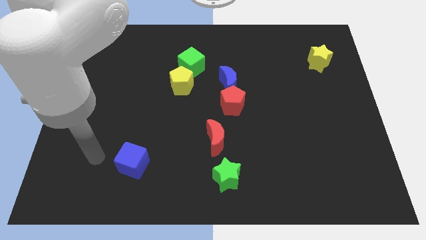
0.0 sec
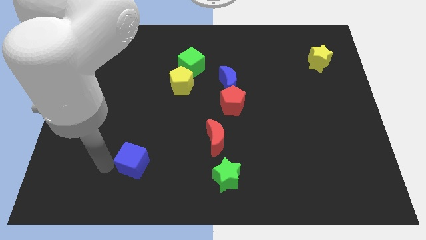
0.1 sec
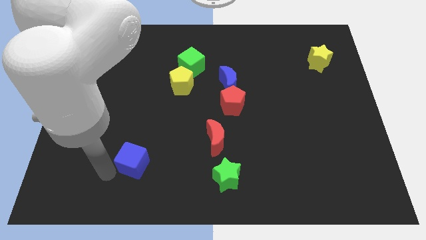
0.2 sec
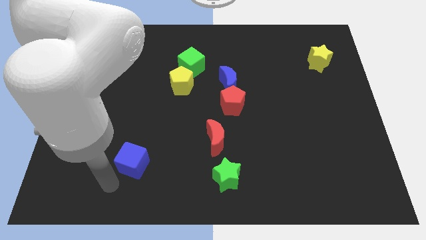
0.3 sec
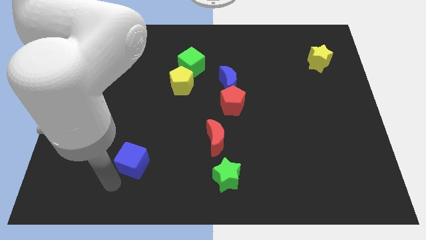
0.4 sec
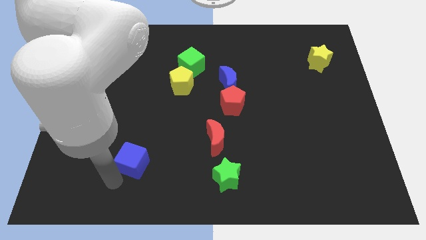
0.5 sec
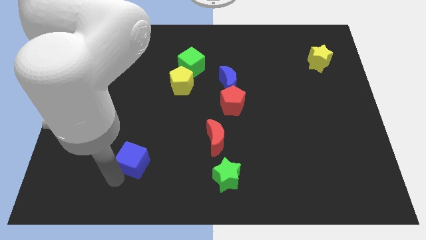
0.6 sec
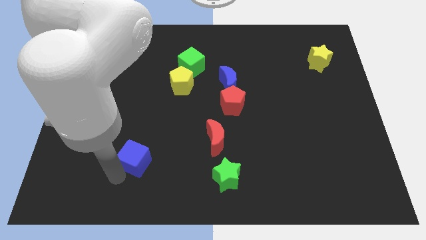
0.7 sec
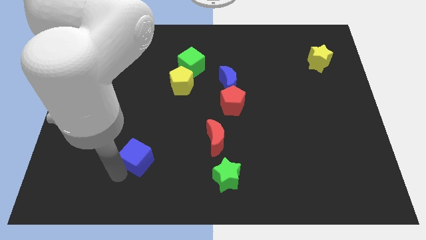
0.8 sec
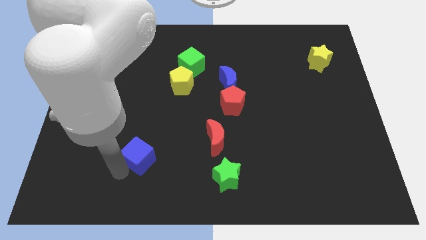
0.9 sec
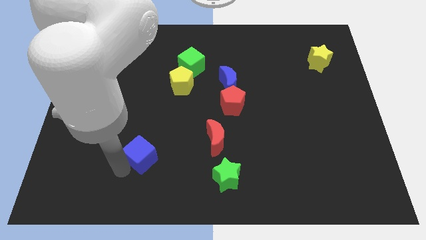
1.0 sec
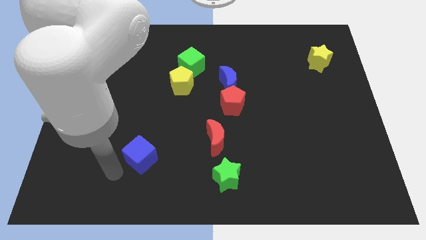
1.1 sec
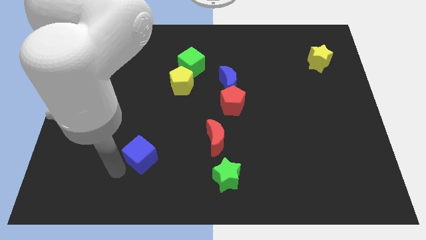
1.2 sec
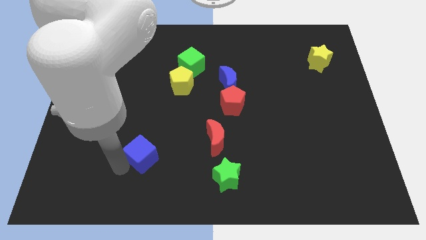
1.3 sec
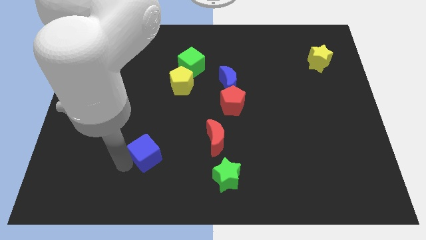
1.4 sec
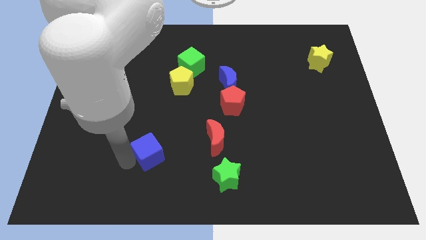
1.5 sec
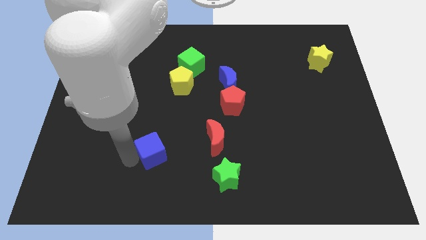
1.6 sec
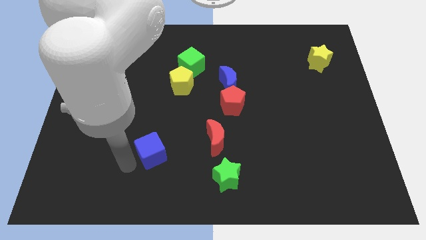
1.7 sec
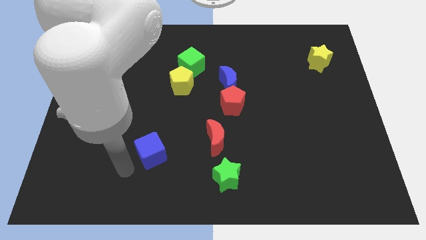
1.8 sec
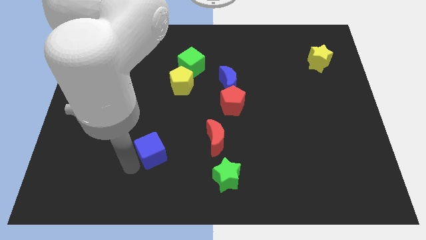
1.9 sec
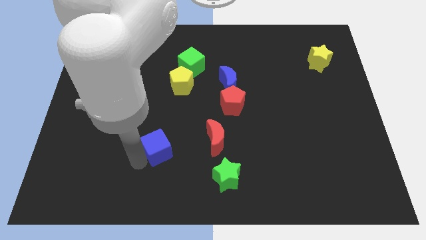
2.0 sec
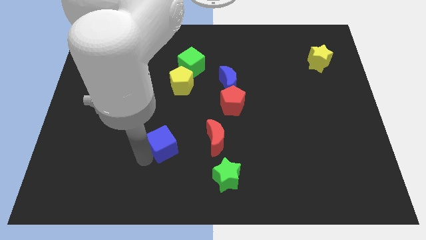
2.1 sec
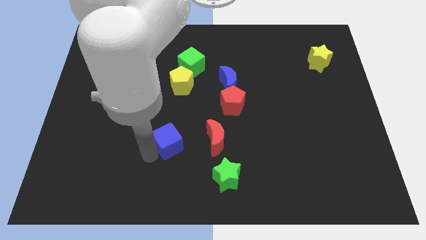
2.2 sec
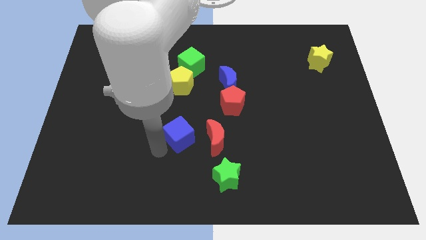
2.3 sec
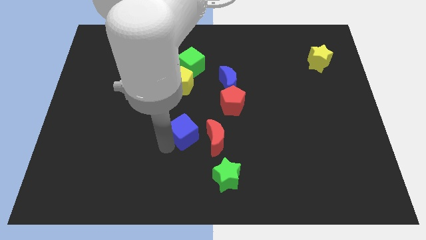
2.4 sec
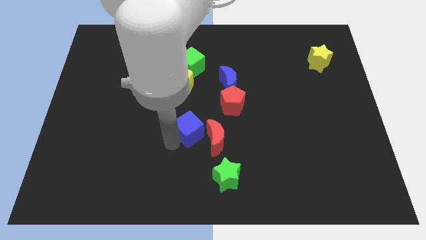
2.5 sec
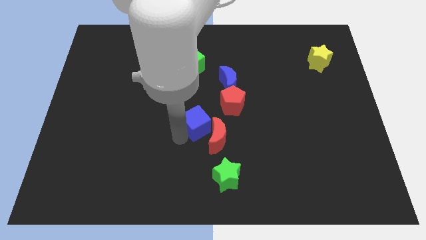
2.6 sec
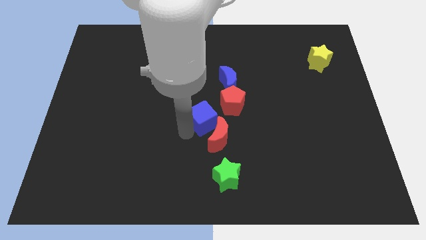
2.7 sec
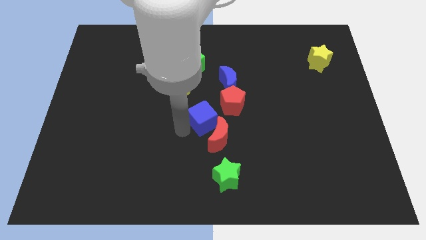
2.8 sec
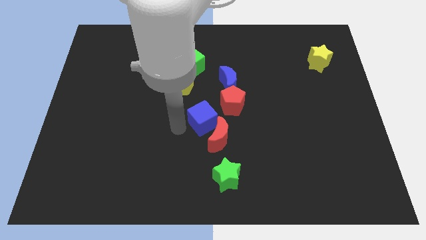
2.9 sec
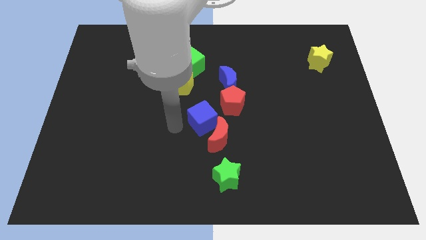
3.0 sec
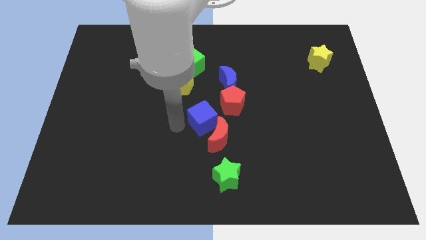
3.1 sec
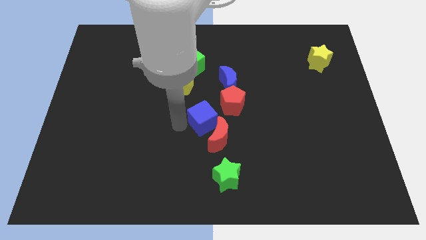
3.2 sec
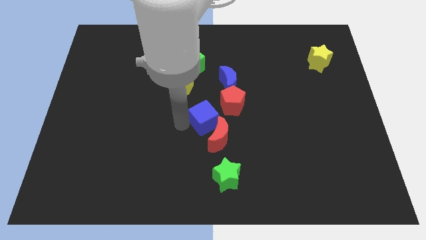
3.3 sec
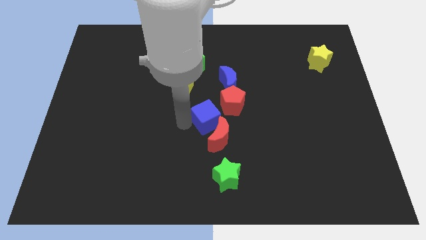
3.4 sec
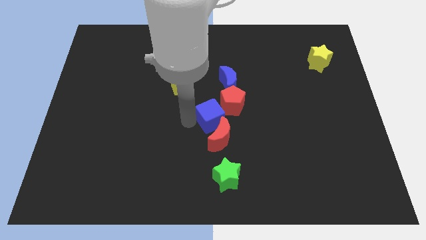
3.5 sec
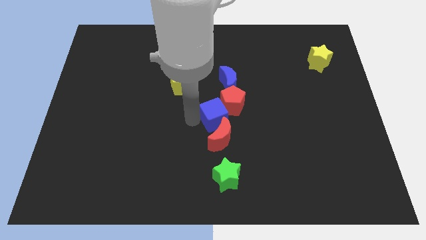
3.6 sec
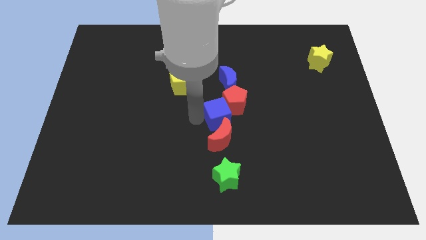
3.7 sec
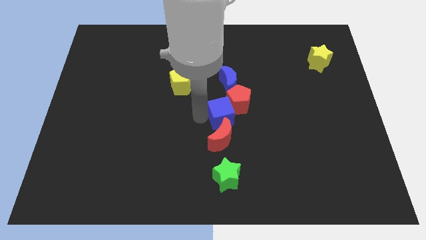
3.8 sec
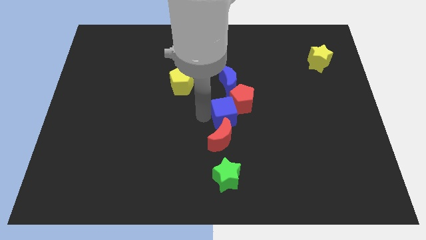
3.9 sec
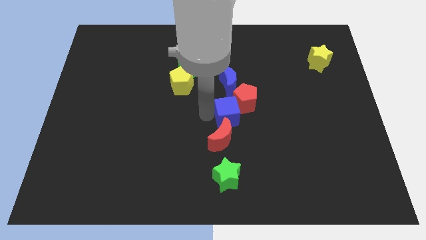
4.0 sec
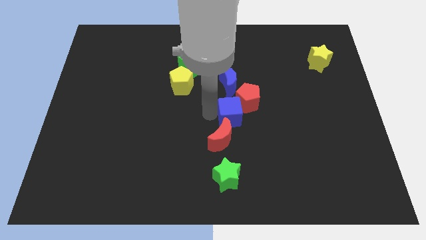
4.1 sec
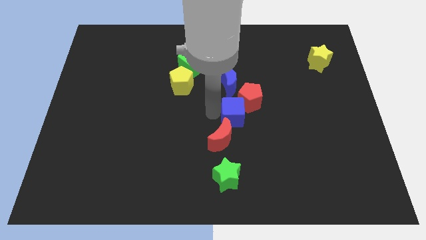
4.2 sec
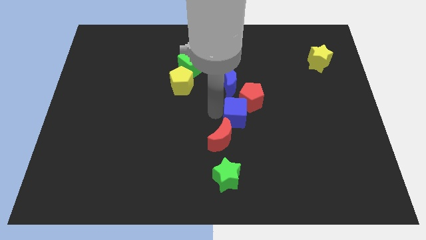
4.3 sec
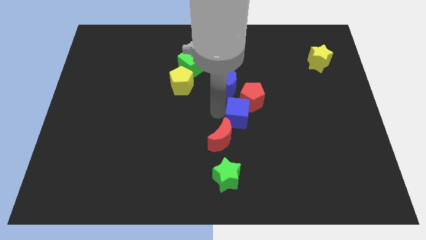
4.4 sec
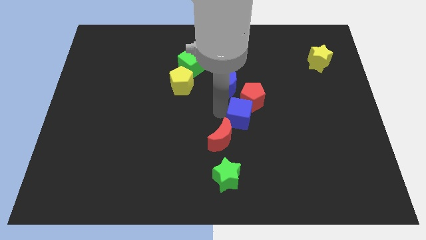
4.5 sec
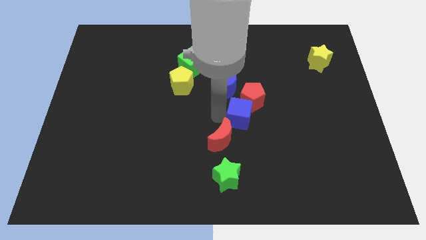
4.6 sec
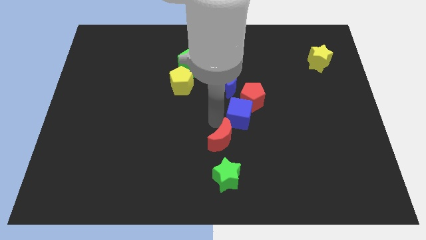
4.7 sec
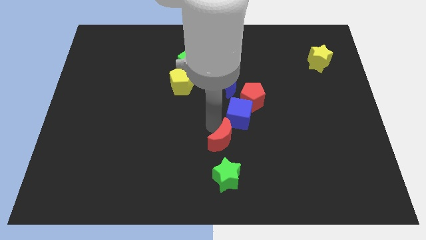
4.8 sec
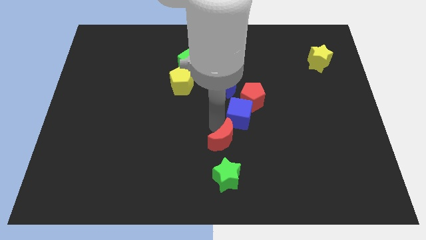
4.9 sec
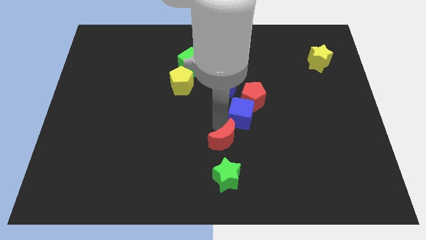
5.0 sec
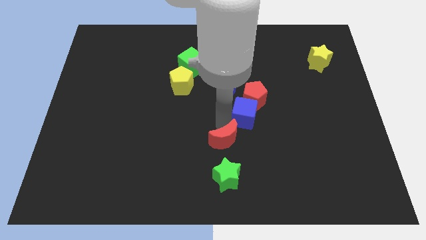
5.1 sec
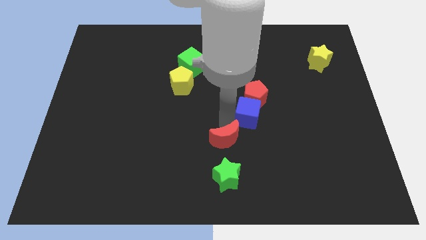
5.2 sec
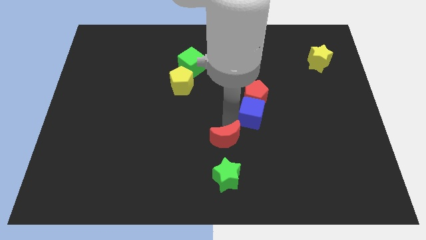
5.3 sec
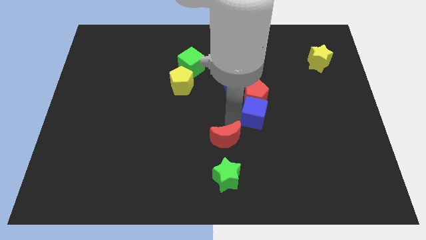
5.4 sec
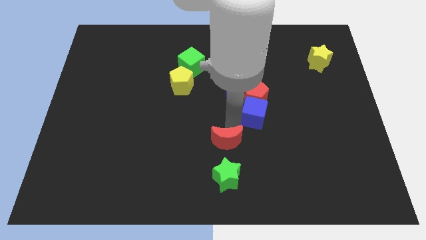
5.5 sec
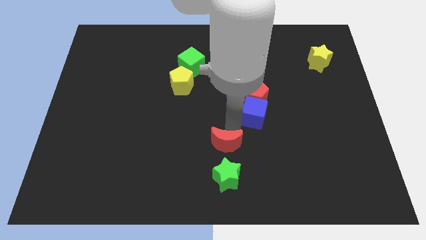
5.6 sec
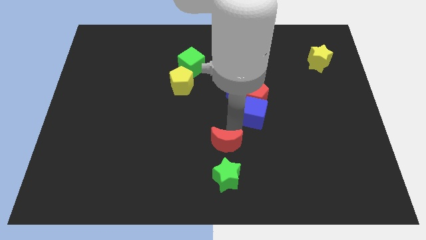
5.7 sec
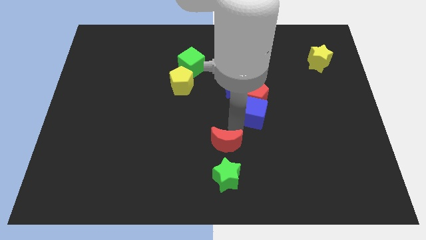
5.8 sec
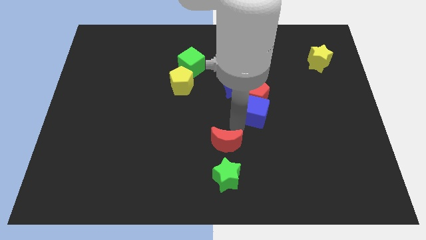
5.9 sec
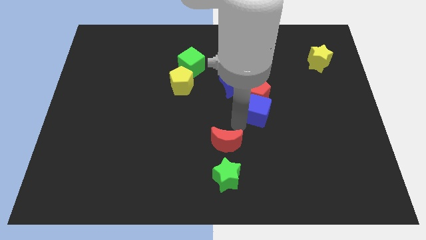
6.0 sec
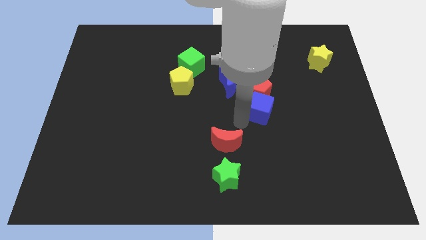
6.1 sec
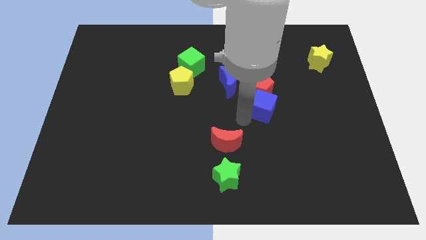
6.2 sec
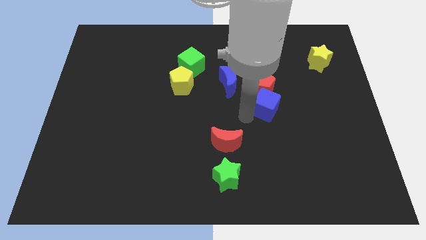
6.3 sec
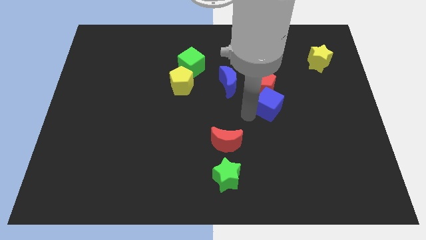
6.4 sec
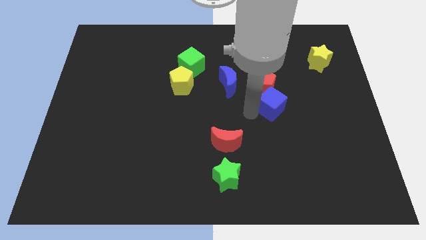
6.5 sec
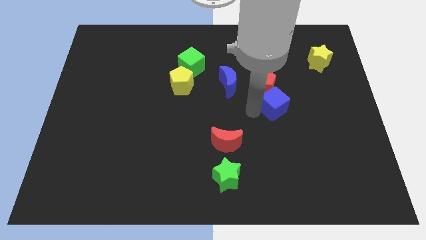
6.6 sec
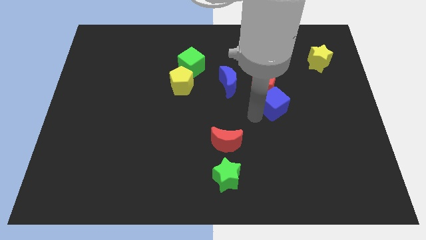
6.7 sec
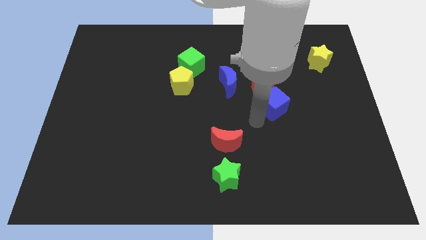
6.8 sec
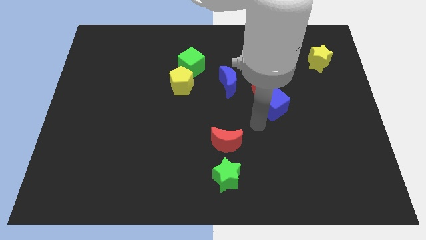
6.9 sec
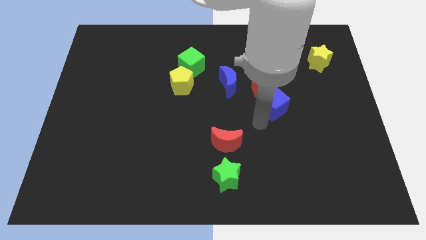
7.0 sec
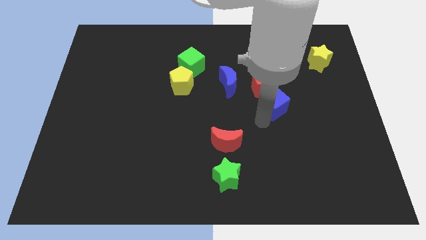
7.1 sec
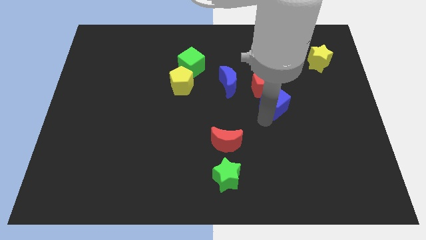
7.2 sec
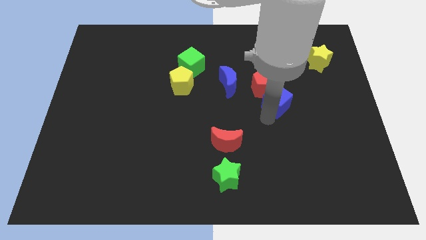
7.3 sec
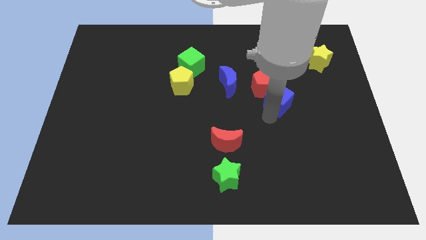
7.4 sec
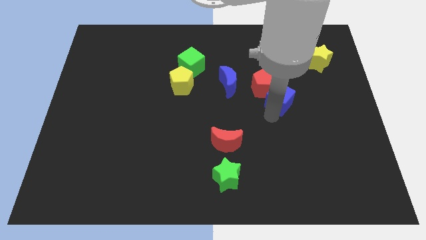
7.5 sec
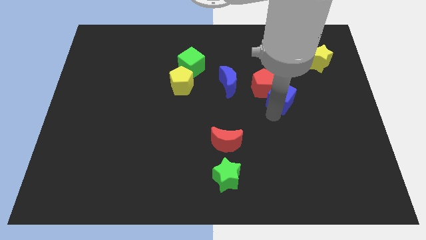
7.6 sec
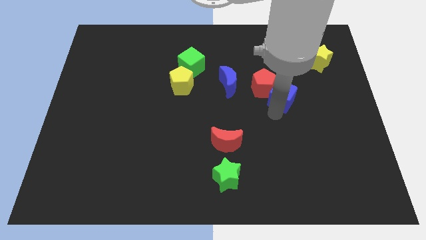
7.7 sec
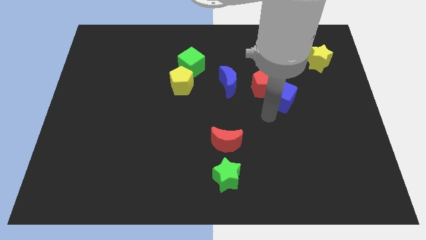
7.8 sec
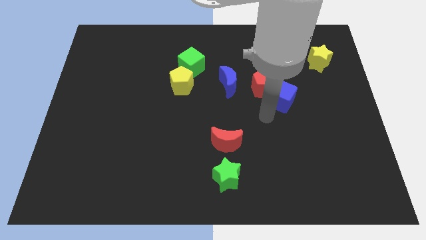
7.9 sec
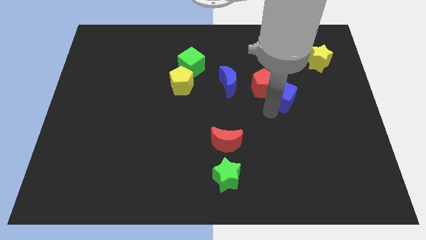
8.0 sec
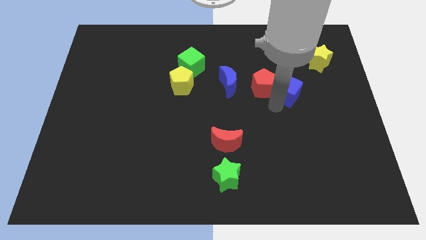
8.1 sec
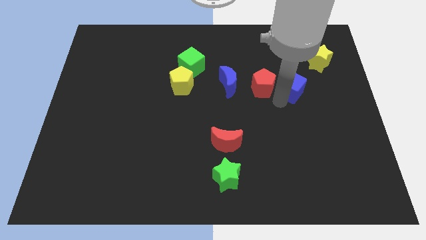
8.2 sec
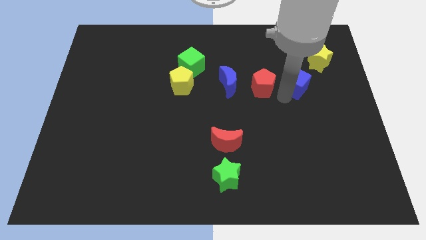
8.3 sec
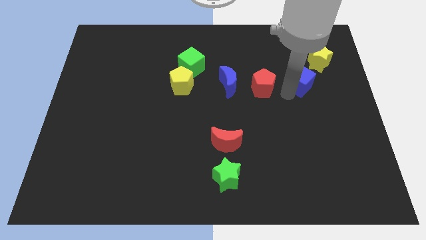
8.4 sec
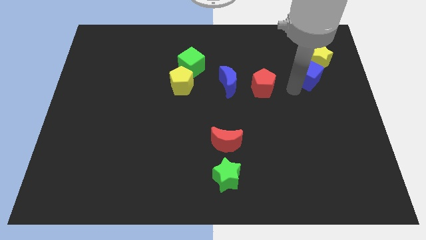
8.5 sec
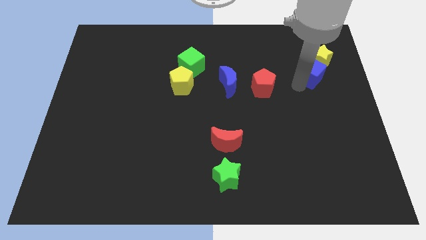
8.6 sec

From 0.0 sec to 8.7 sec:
push the blue cube to the yellow star
